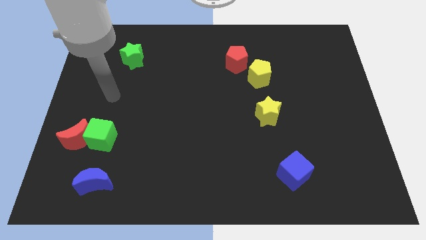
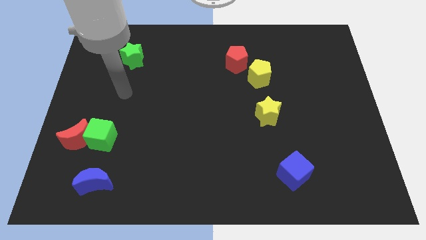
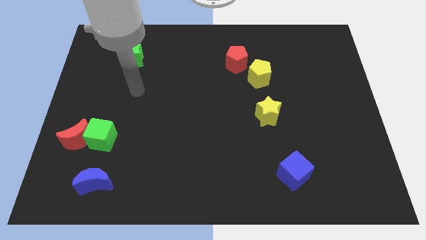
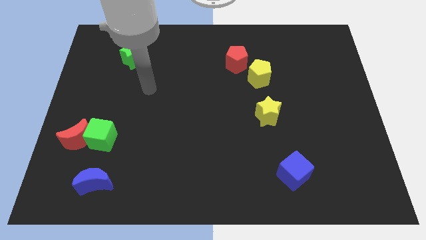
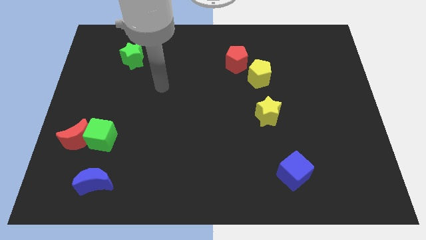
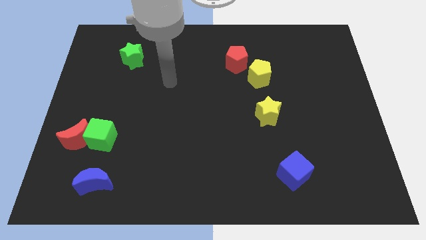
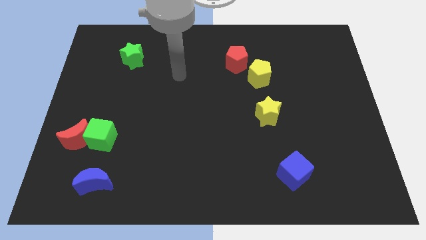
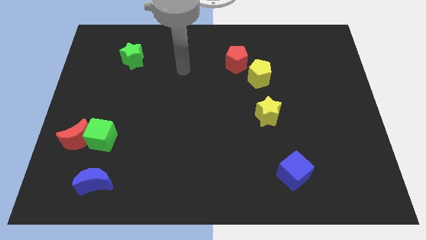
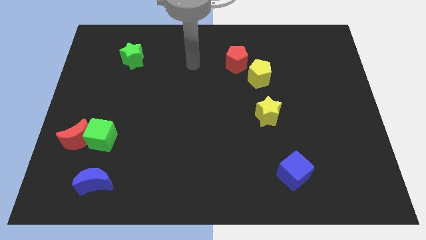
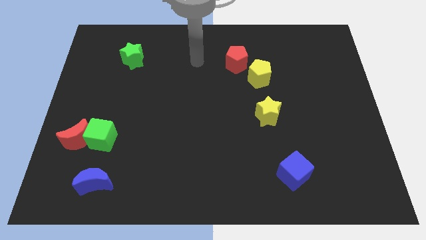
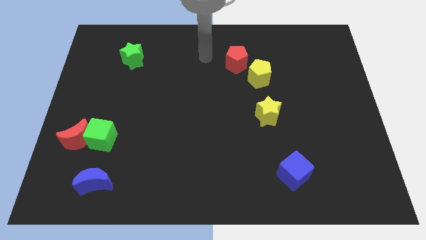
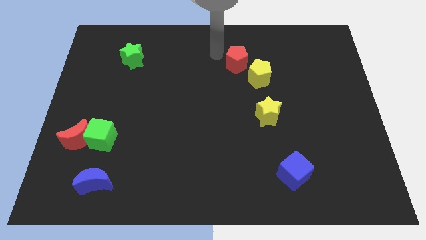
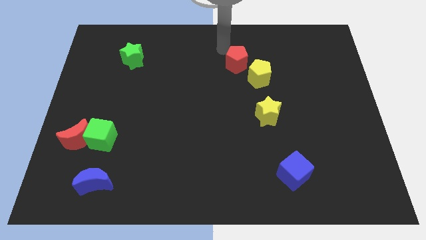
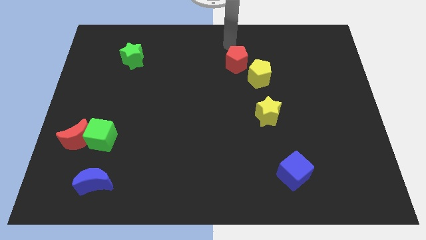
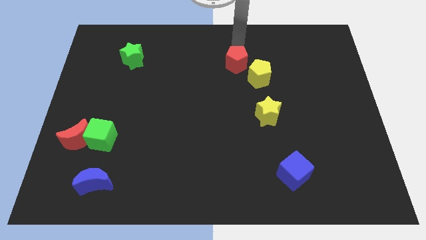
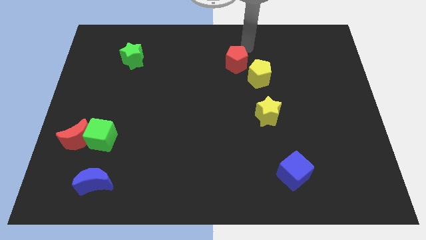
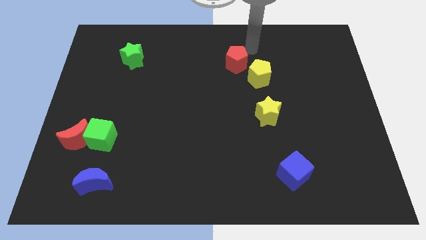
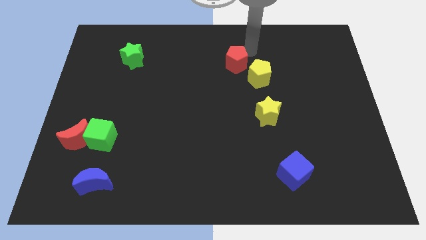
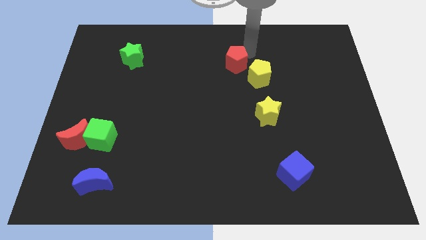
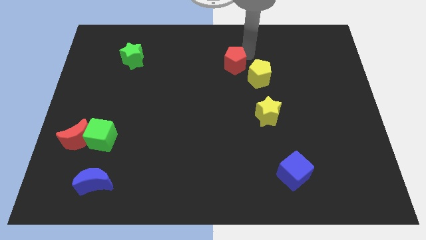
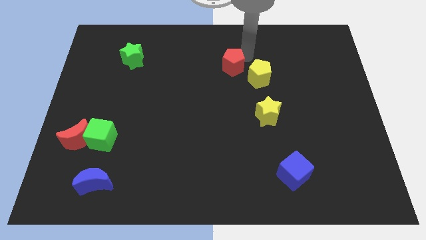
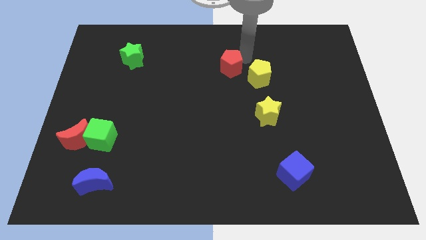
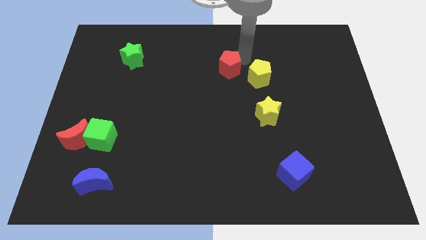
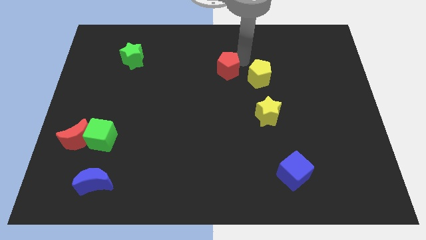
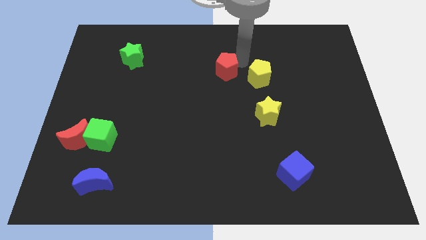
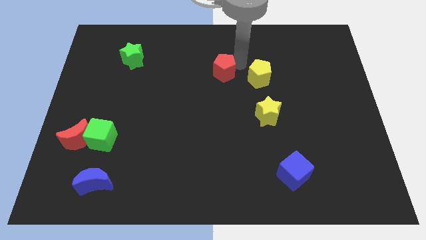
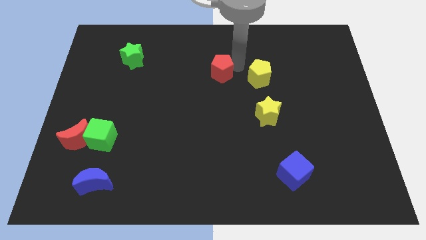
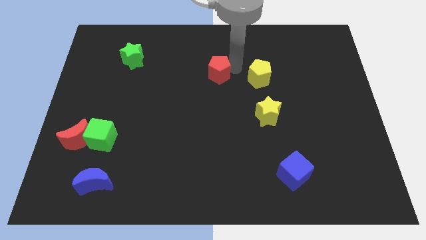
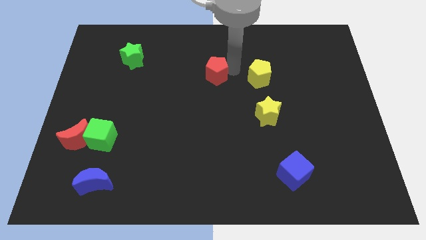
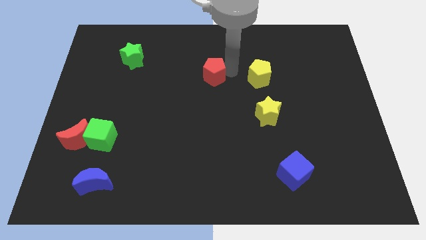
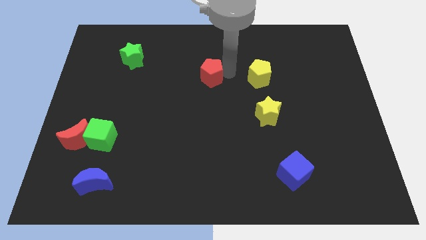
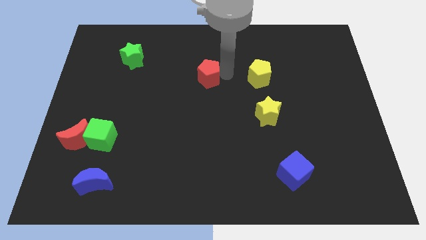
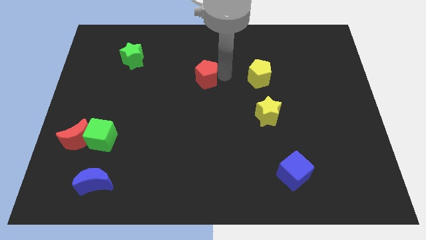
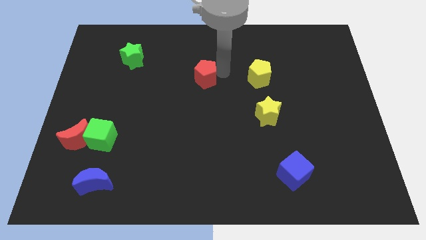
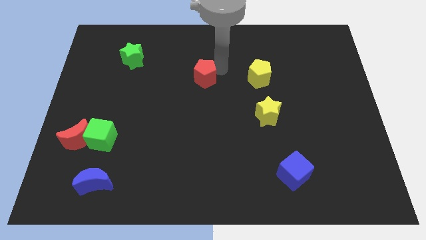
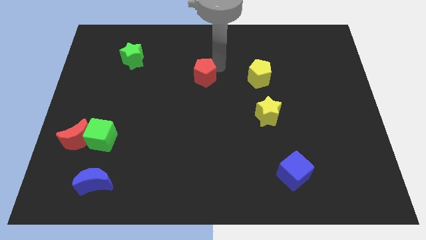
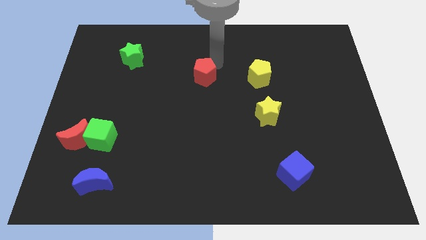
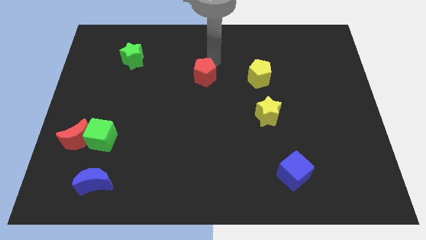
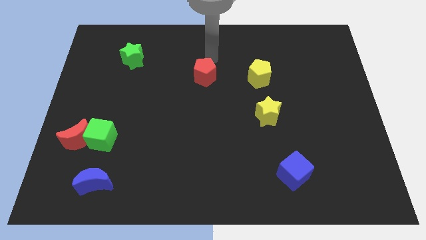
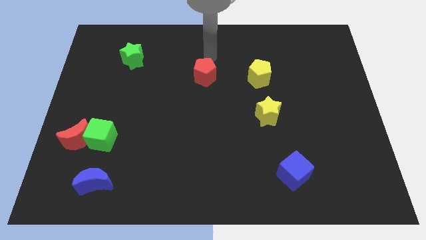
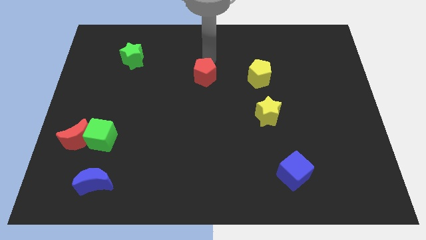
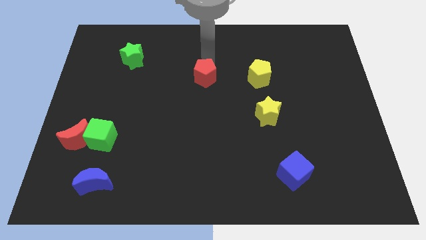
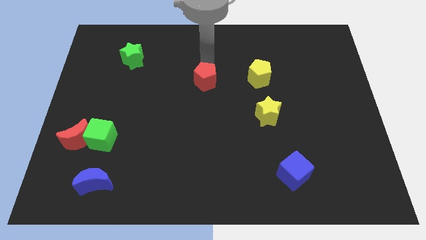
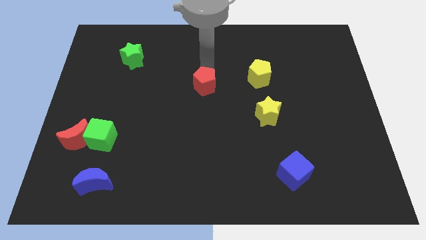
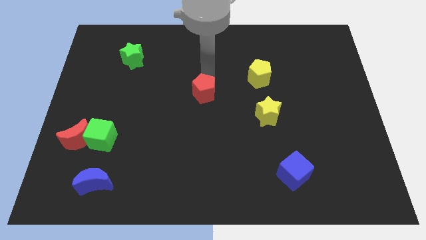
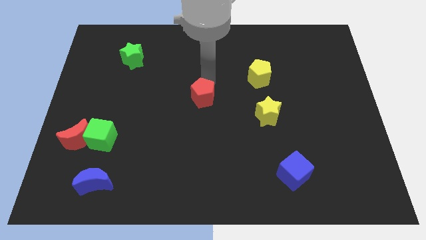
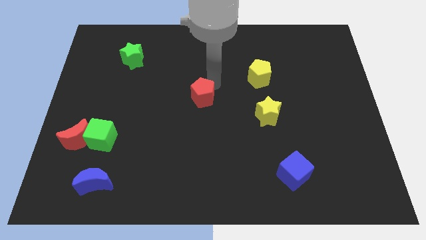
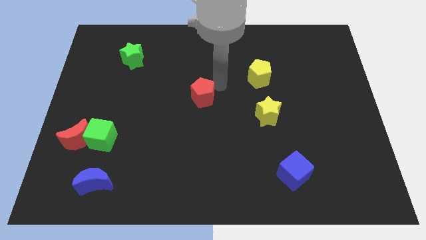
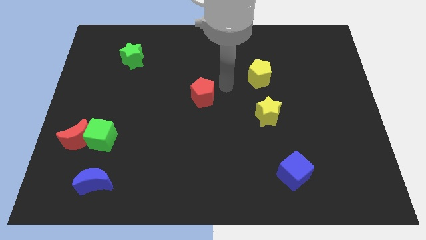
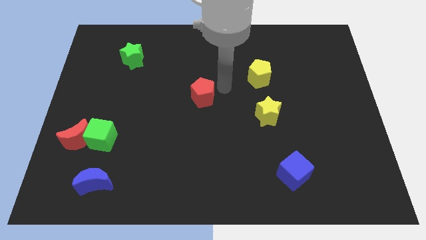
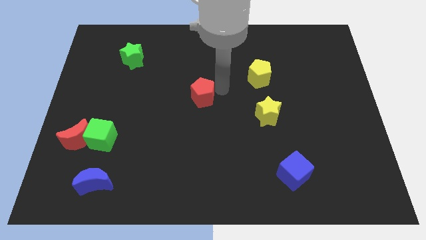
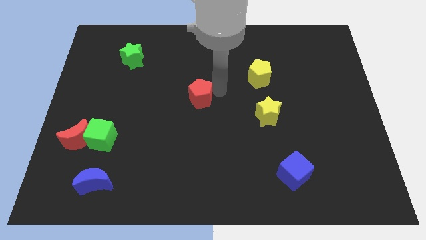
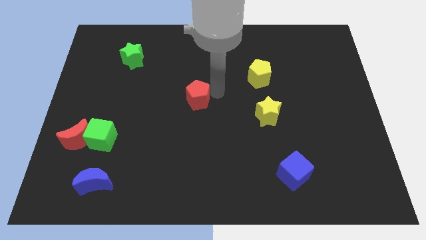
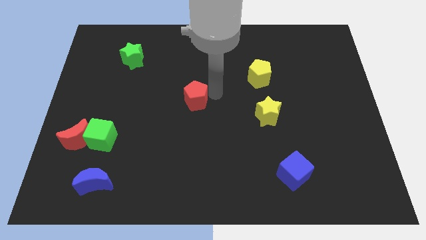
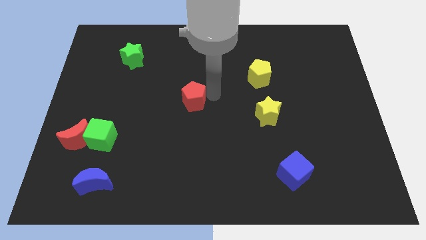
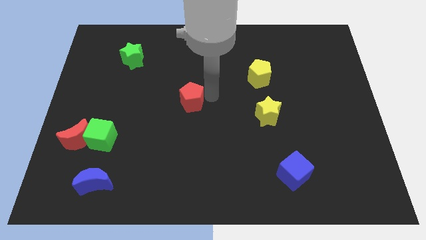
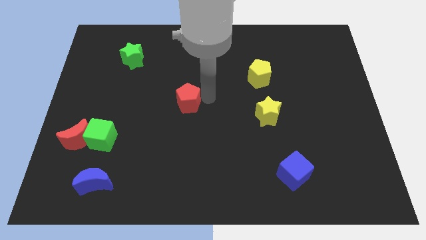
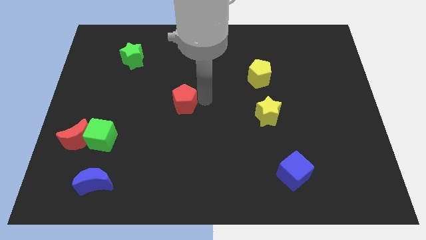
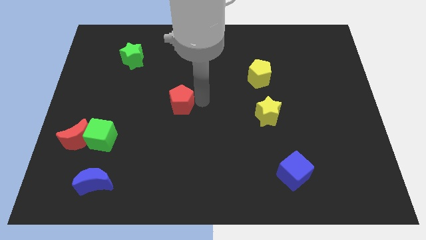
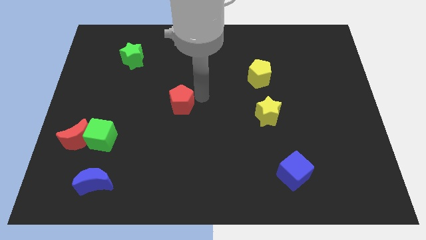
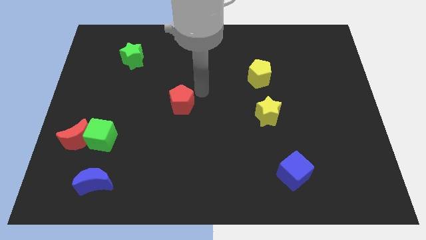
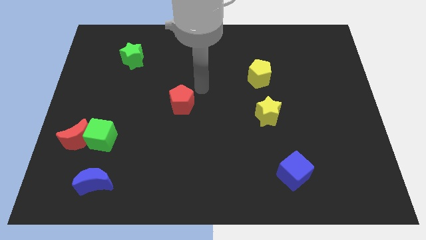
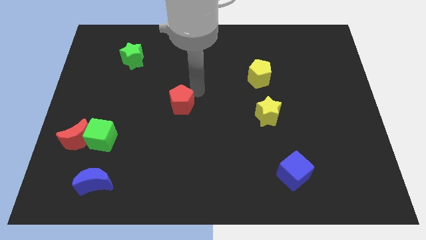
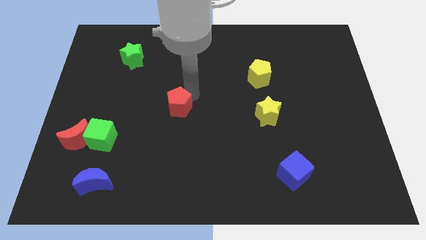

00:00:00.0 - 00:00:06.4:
move the red pentagon down and then to the left

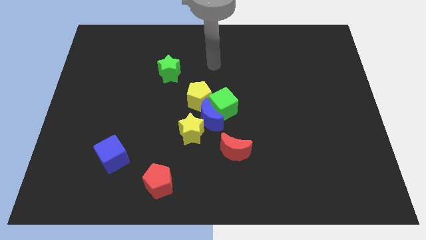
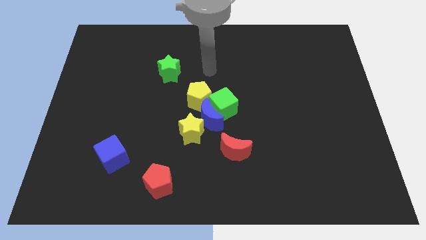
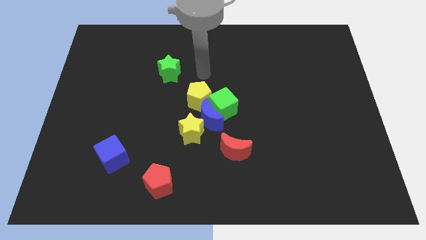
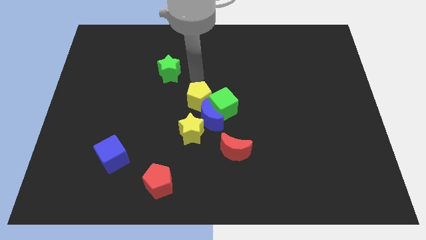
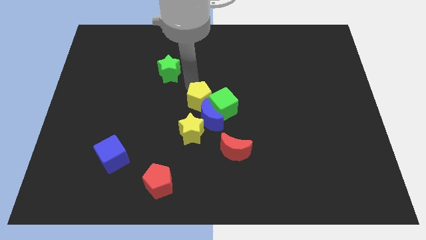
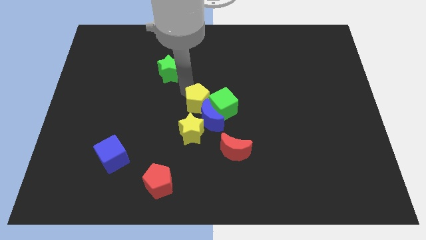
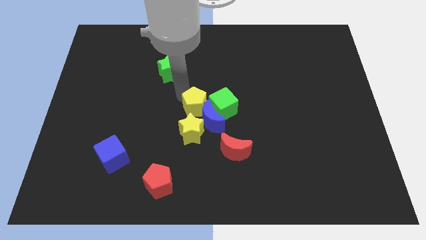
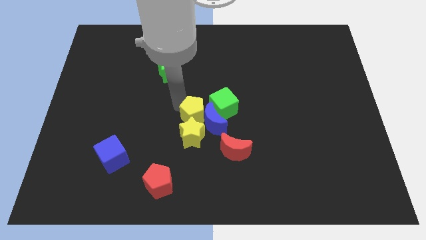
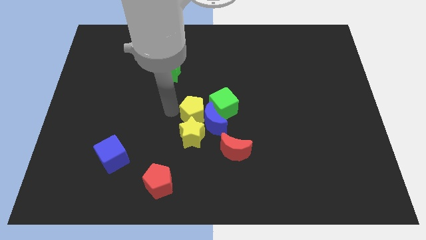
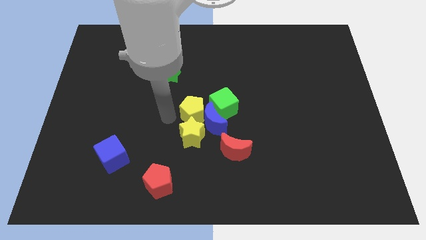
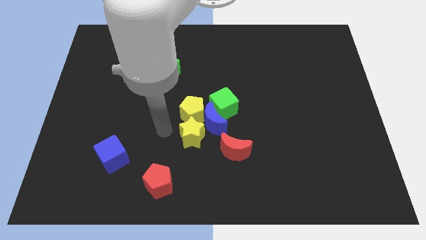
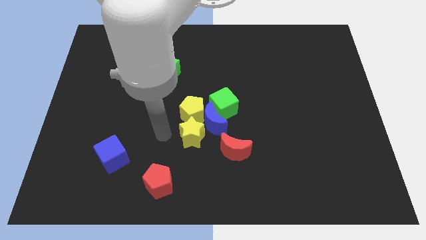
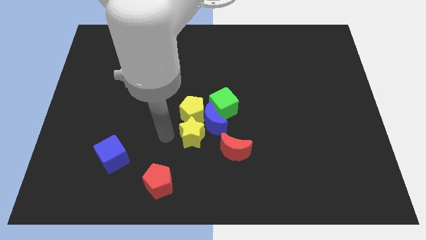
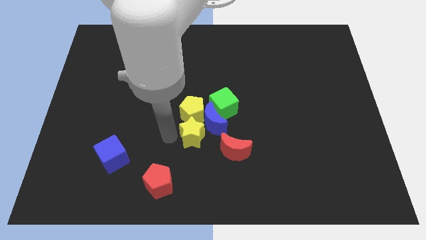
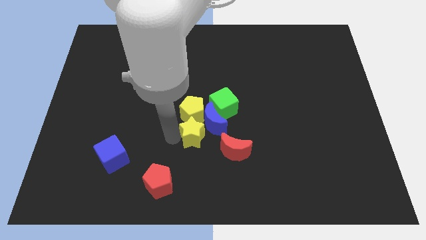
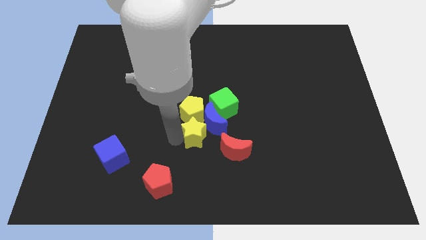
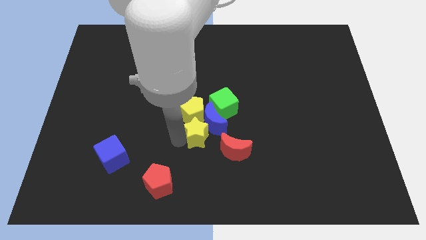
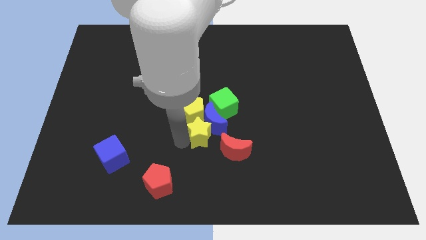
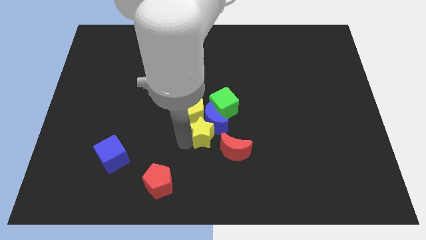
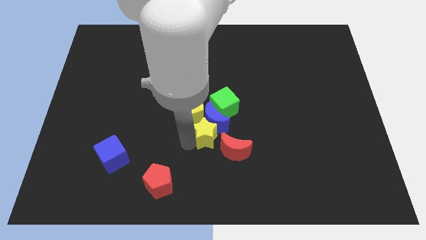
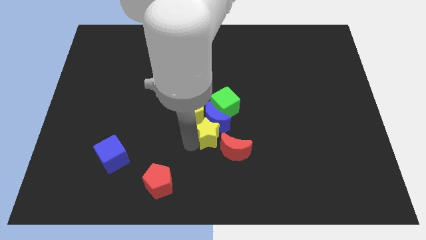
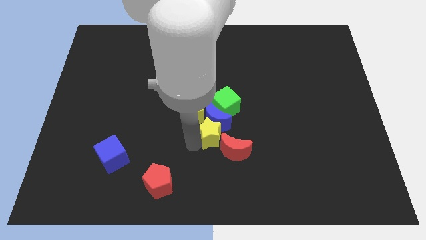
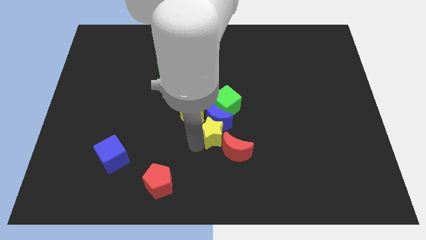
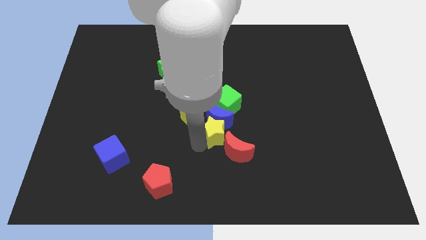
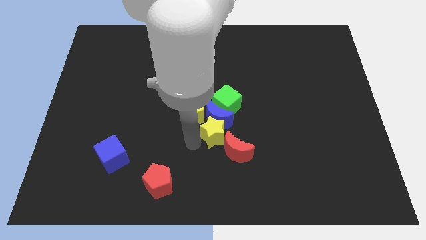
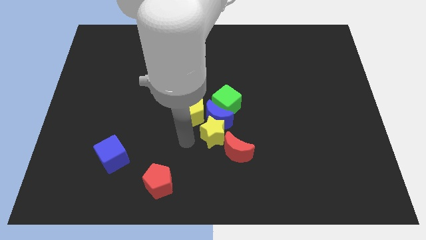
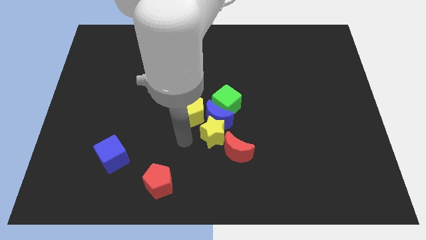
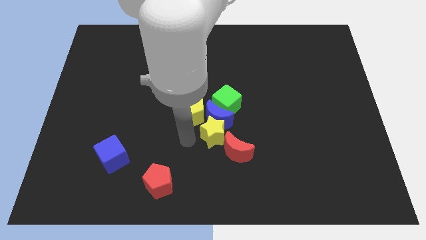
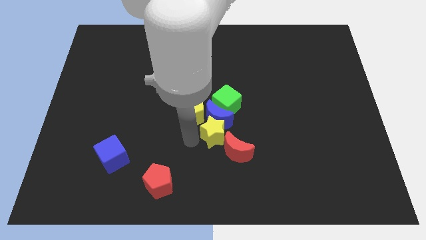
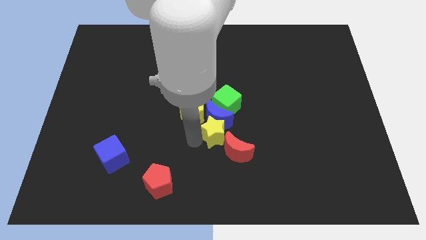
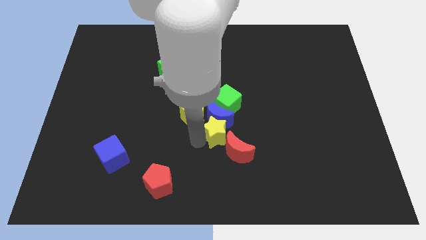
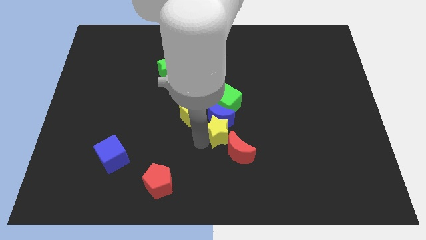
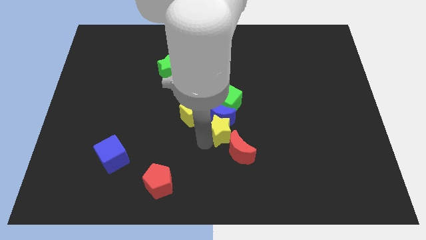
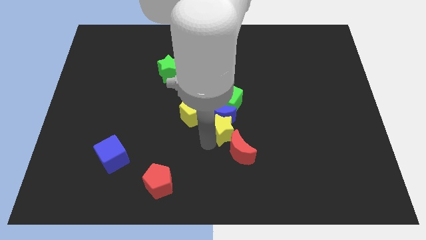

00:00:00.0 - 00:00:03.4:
move the yellow star a bit to the right
